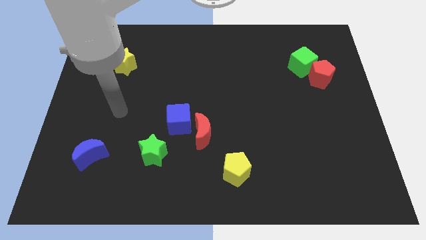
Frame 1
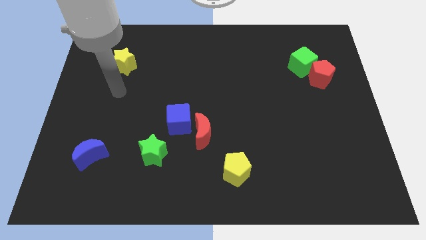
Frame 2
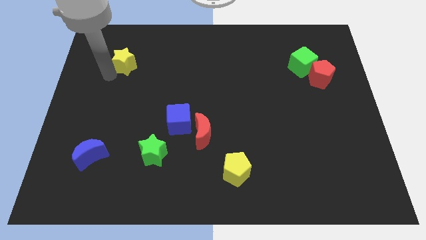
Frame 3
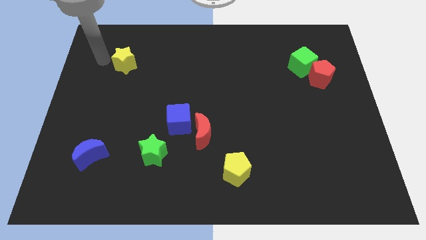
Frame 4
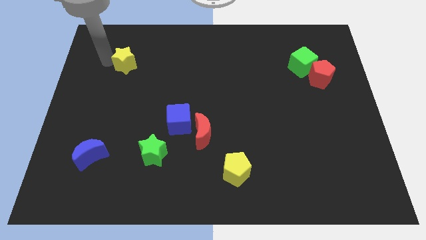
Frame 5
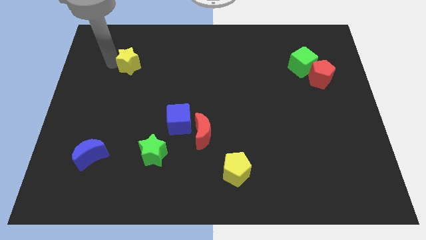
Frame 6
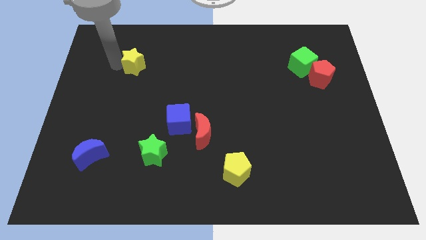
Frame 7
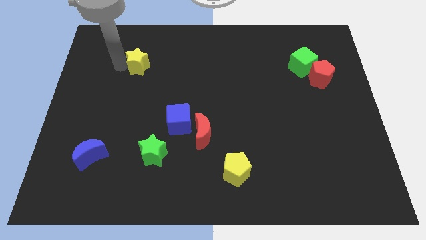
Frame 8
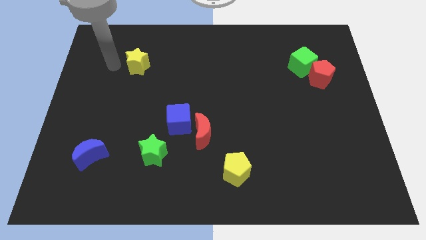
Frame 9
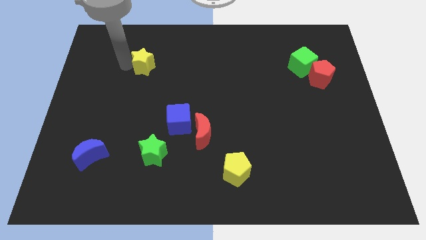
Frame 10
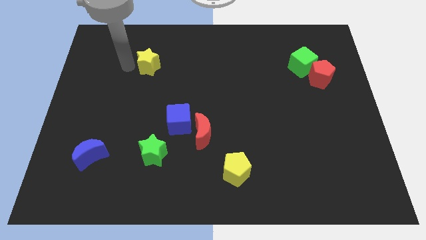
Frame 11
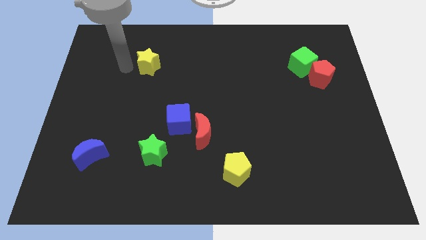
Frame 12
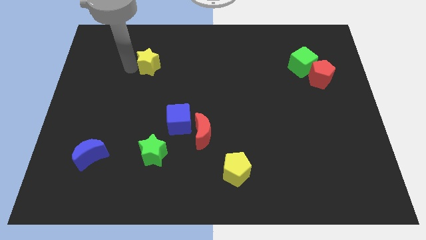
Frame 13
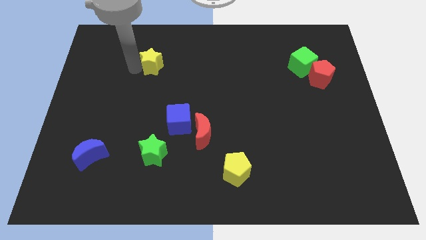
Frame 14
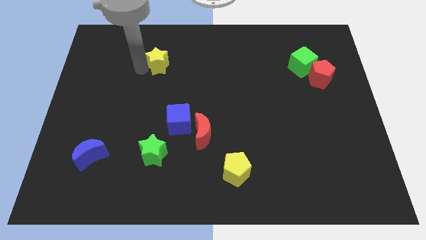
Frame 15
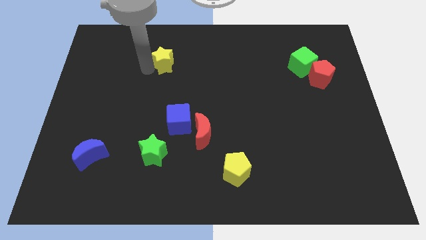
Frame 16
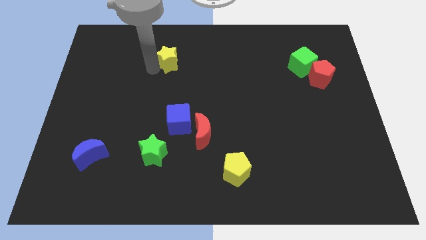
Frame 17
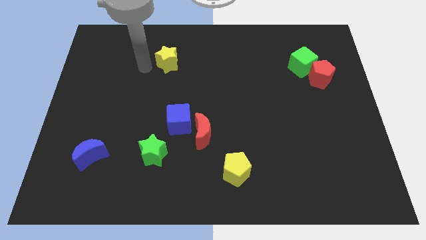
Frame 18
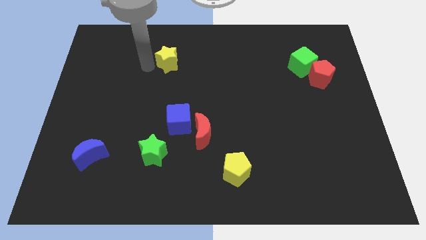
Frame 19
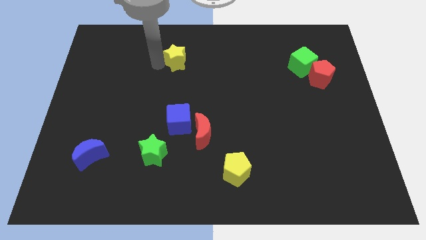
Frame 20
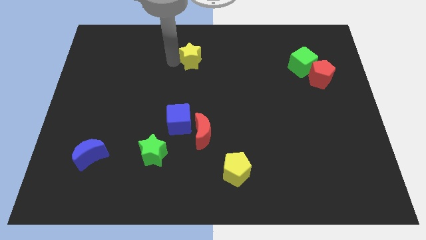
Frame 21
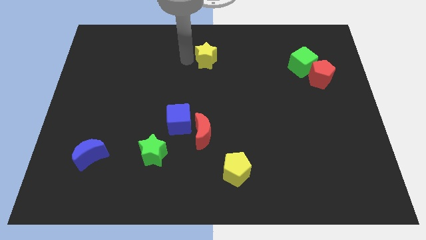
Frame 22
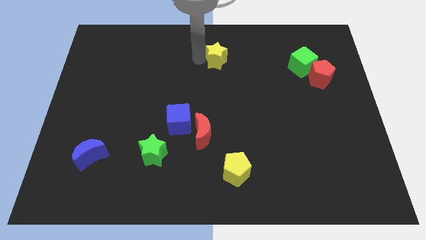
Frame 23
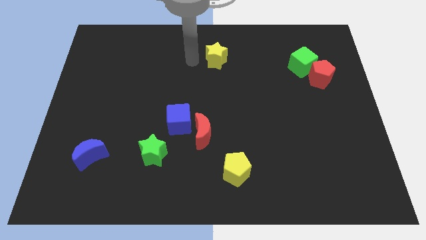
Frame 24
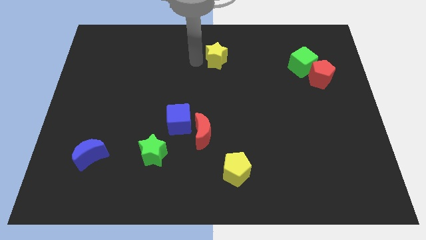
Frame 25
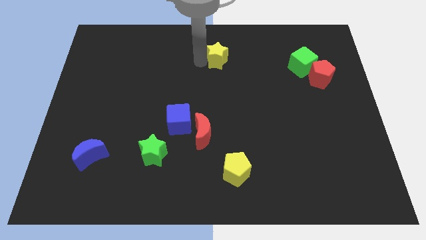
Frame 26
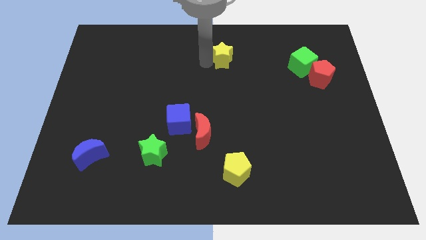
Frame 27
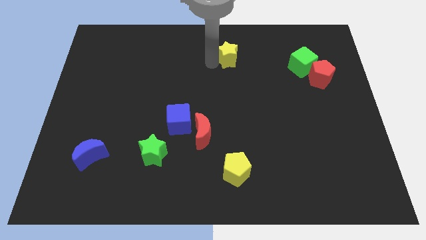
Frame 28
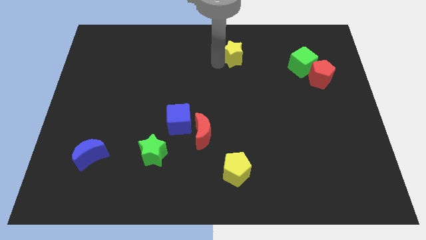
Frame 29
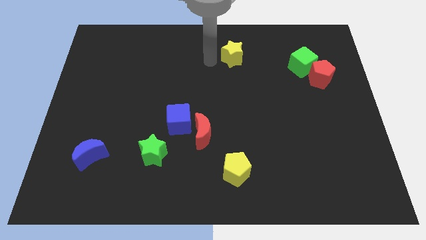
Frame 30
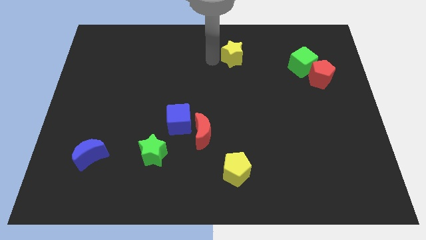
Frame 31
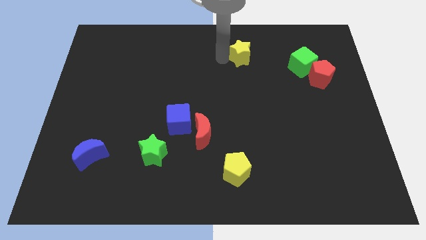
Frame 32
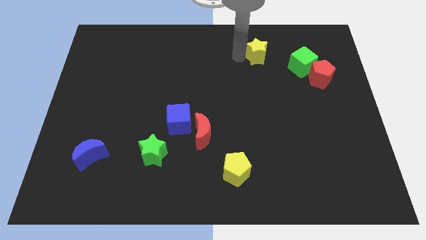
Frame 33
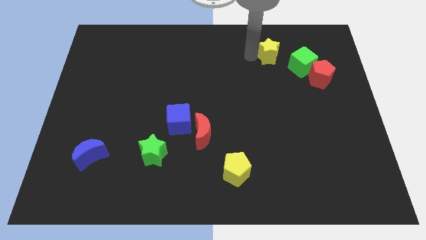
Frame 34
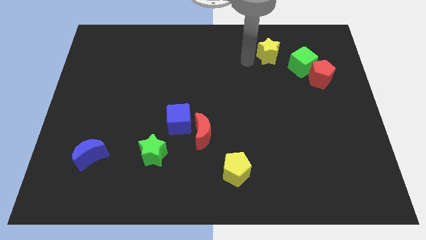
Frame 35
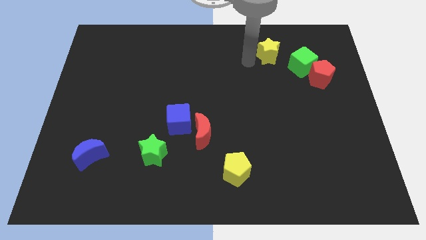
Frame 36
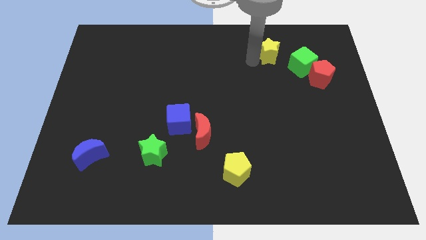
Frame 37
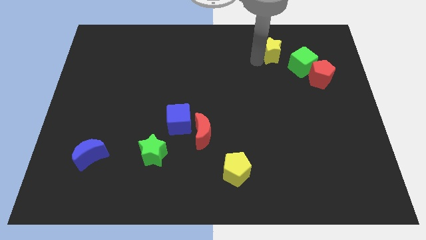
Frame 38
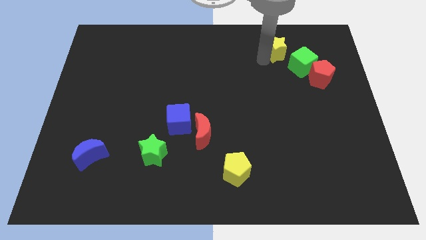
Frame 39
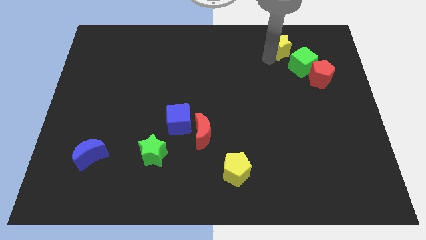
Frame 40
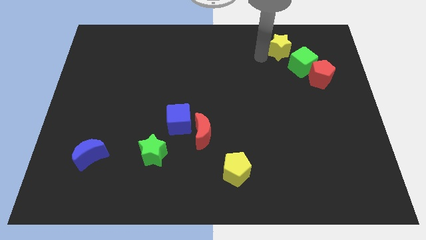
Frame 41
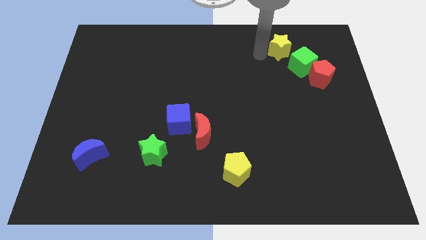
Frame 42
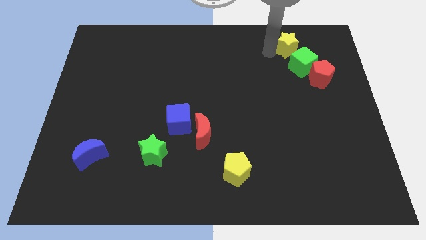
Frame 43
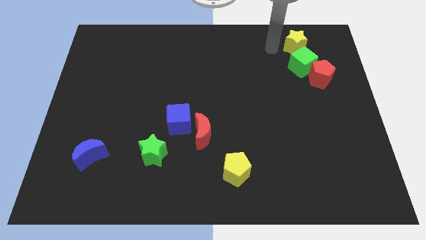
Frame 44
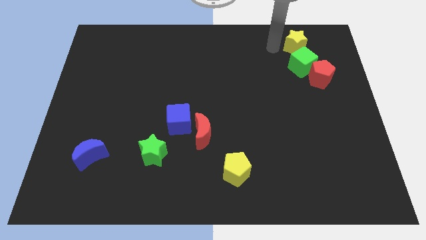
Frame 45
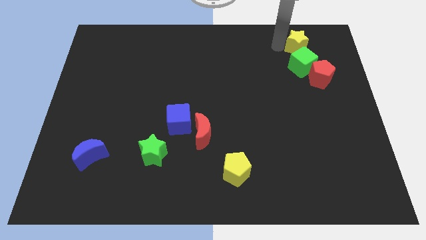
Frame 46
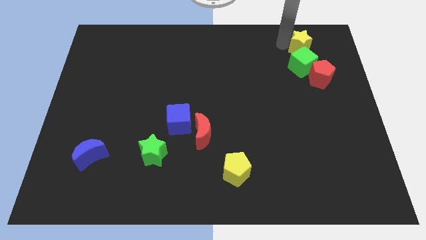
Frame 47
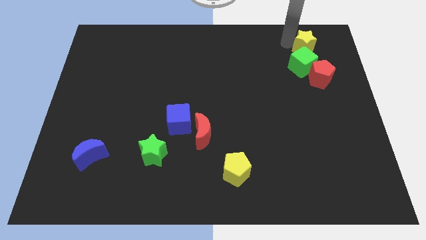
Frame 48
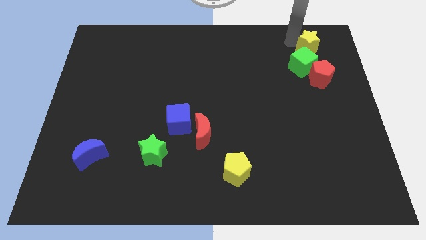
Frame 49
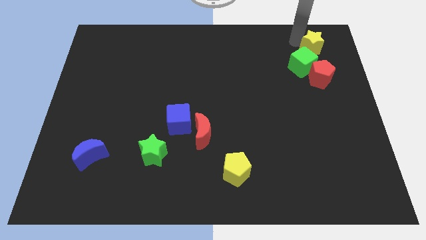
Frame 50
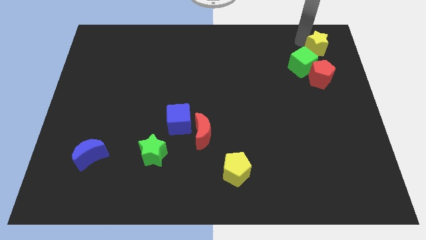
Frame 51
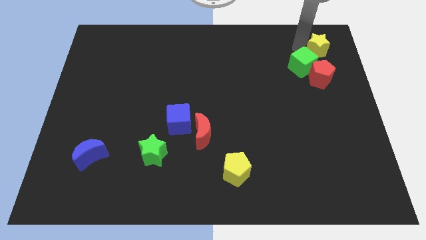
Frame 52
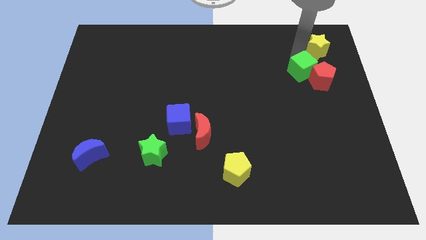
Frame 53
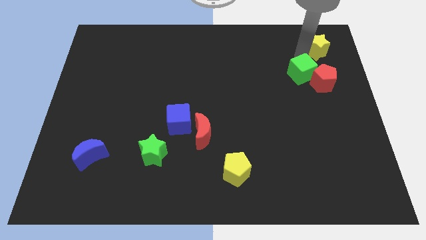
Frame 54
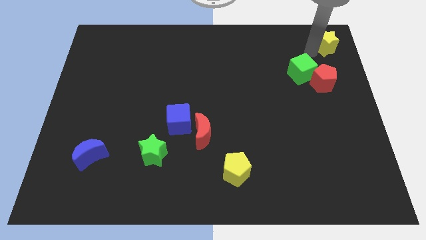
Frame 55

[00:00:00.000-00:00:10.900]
slide the yellow star to the top right

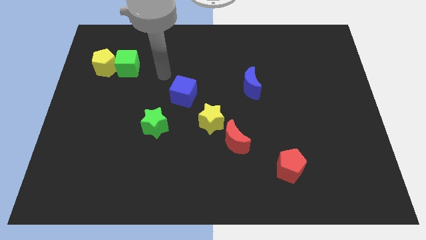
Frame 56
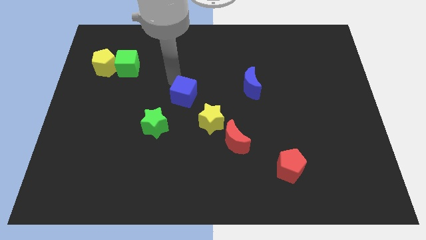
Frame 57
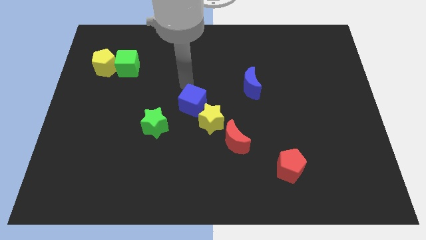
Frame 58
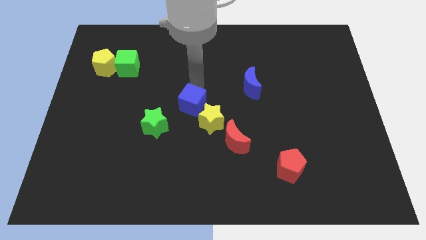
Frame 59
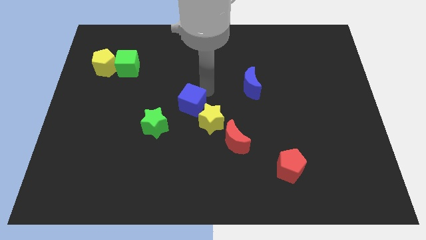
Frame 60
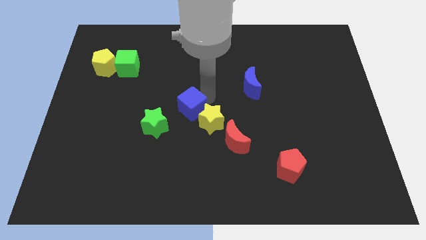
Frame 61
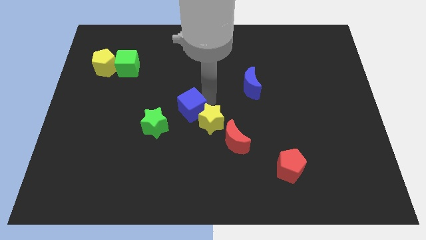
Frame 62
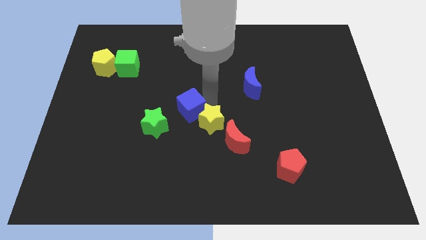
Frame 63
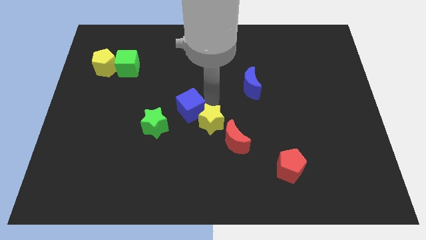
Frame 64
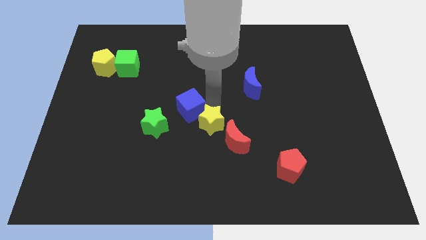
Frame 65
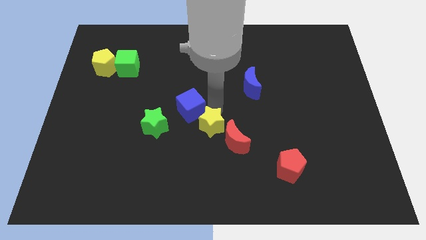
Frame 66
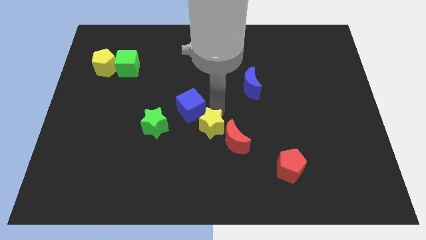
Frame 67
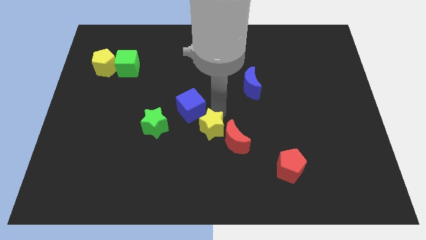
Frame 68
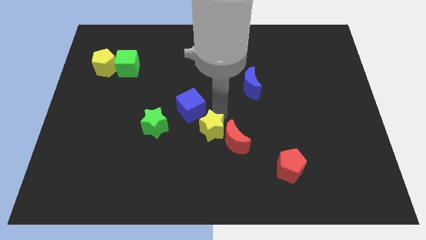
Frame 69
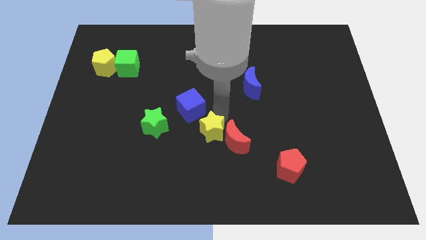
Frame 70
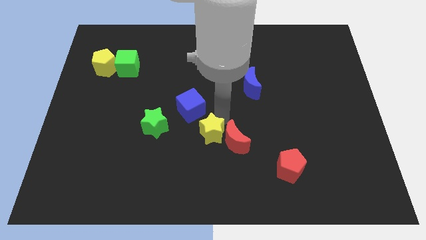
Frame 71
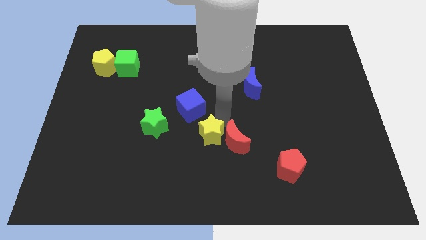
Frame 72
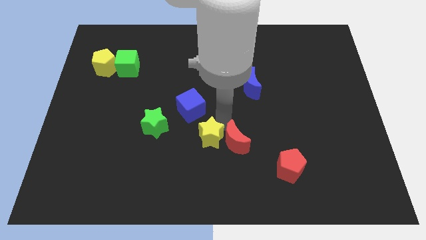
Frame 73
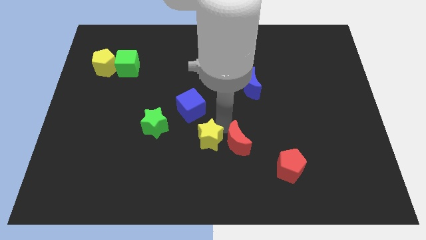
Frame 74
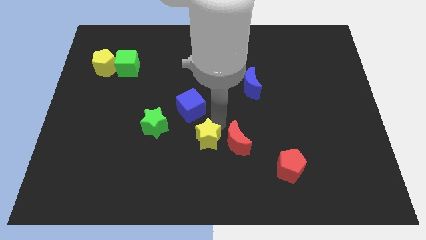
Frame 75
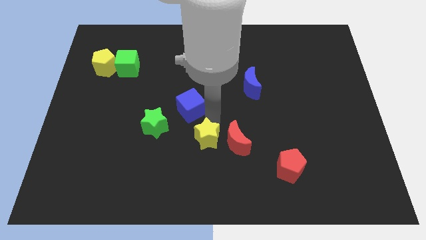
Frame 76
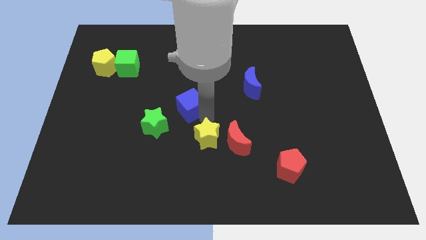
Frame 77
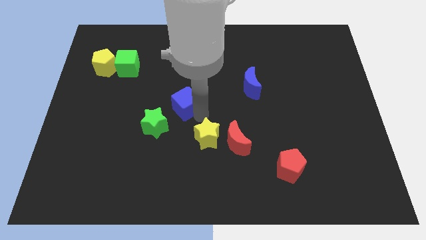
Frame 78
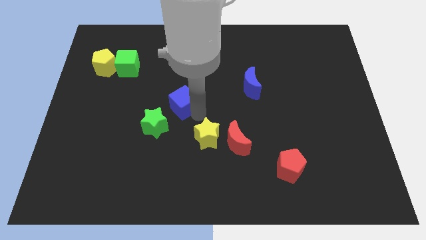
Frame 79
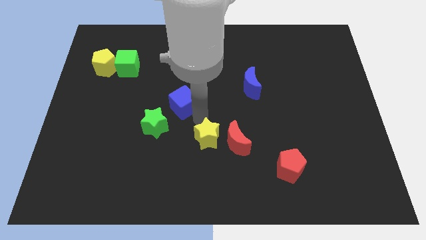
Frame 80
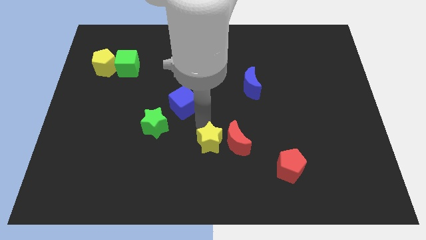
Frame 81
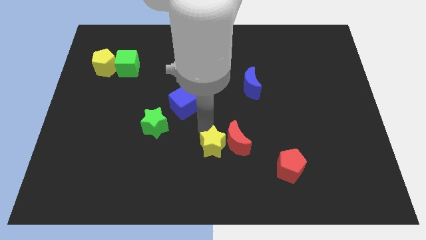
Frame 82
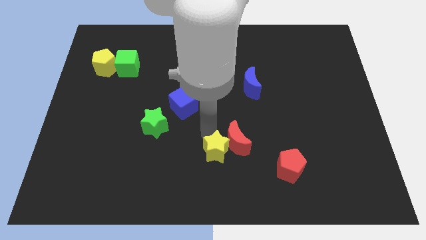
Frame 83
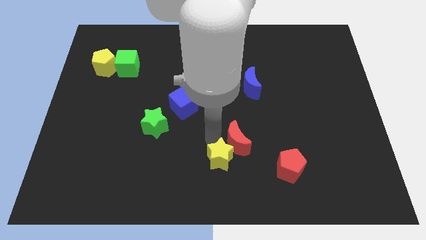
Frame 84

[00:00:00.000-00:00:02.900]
slide the yellow star to the bottom
